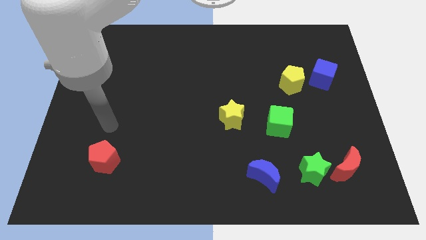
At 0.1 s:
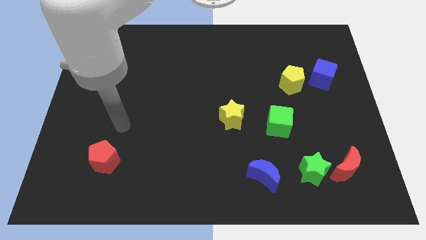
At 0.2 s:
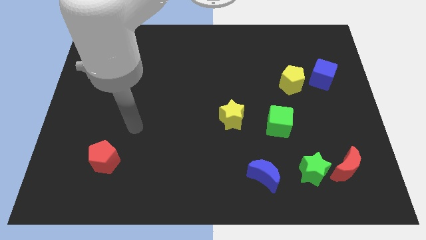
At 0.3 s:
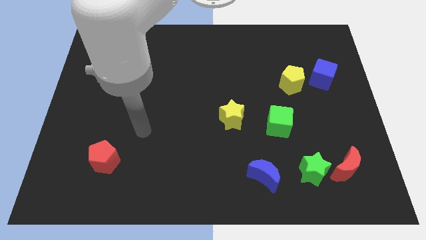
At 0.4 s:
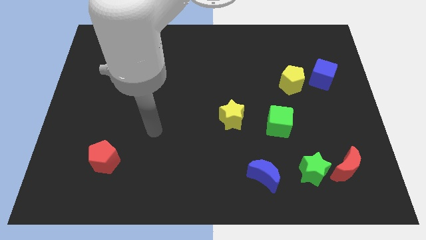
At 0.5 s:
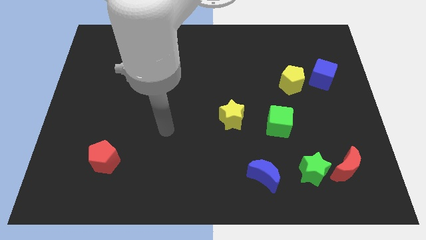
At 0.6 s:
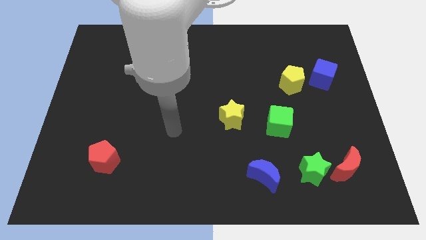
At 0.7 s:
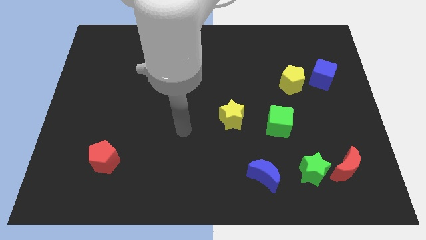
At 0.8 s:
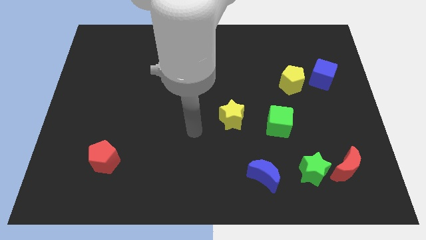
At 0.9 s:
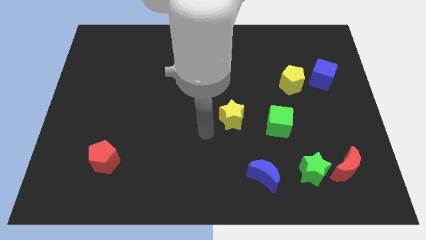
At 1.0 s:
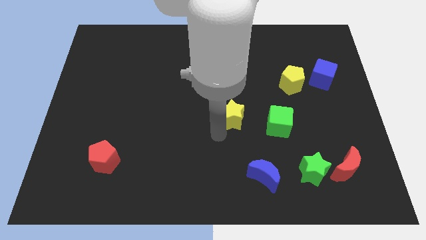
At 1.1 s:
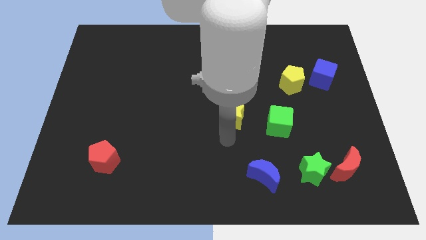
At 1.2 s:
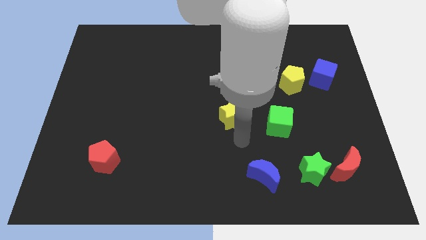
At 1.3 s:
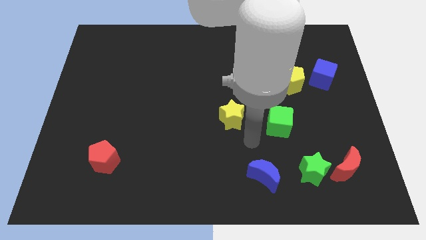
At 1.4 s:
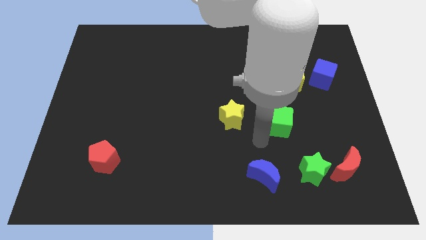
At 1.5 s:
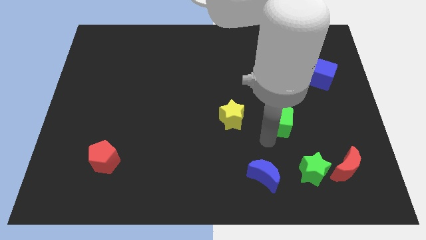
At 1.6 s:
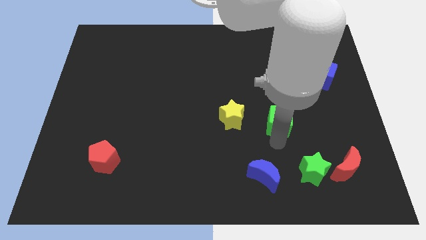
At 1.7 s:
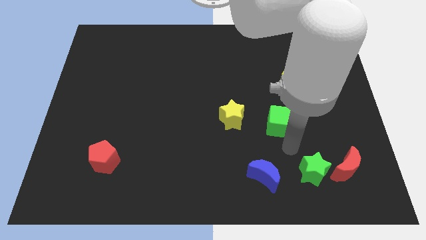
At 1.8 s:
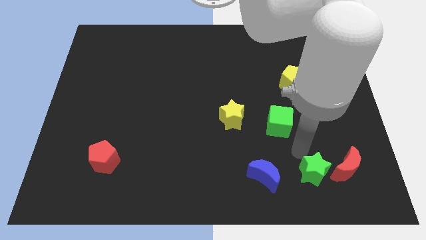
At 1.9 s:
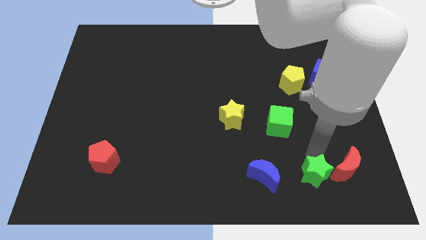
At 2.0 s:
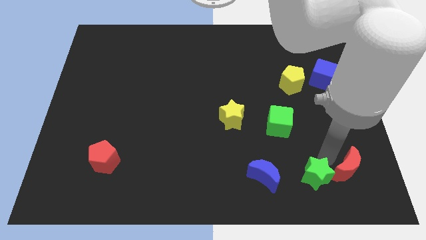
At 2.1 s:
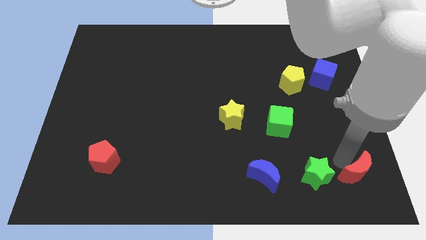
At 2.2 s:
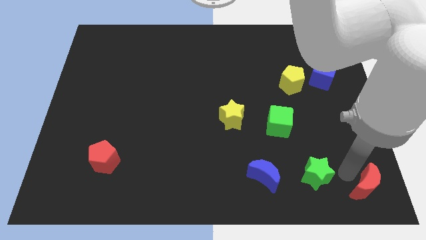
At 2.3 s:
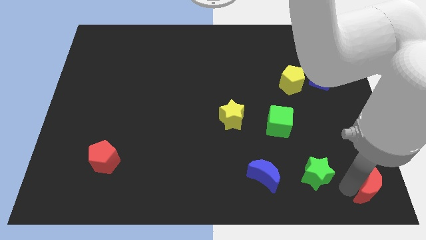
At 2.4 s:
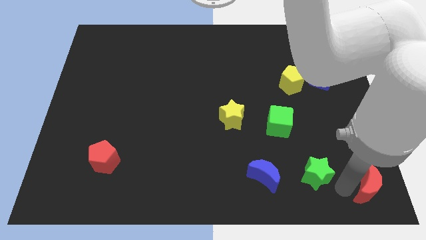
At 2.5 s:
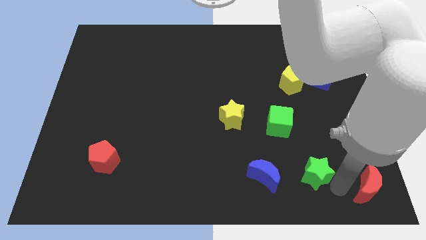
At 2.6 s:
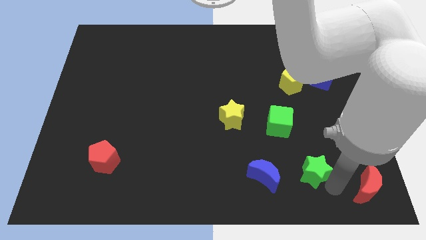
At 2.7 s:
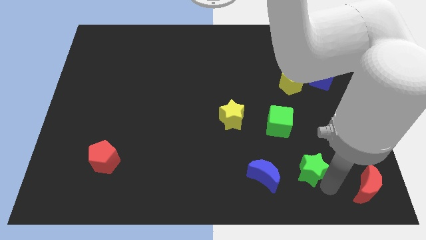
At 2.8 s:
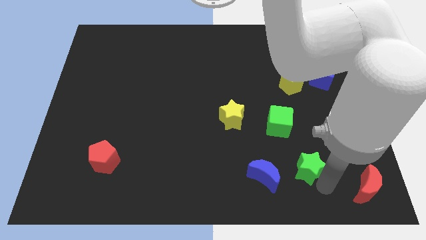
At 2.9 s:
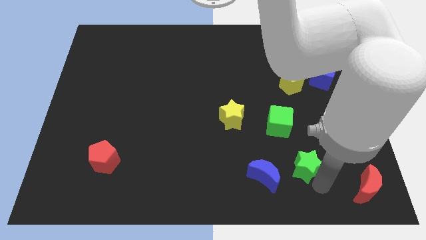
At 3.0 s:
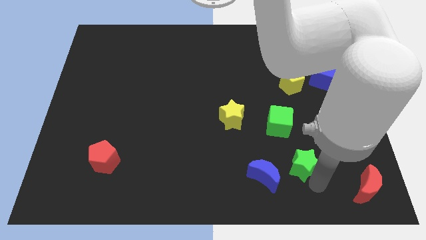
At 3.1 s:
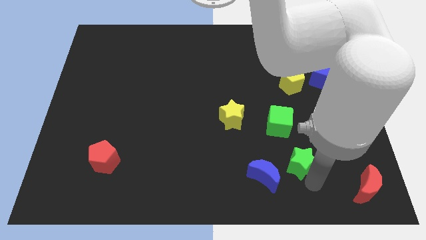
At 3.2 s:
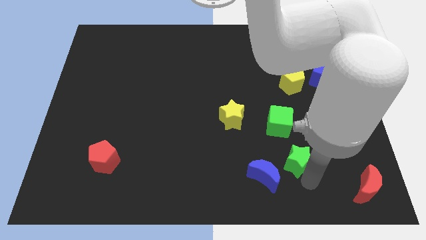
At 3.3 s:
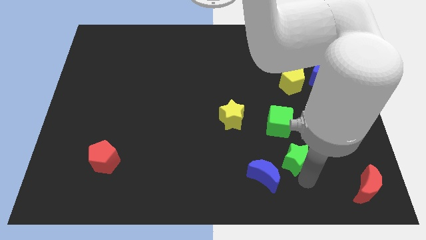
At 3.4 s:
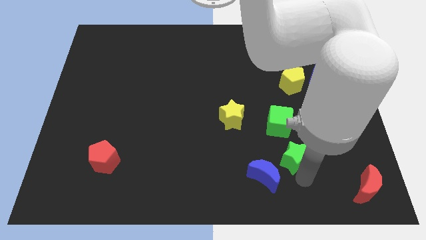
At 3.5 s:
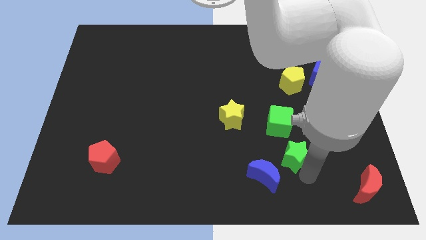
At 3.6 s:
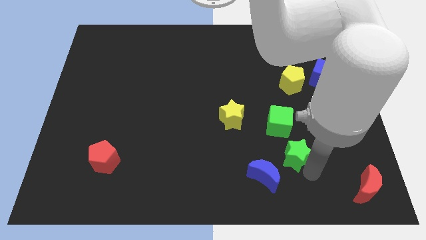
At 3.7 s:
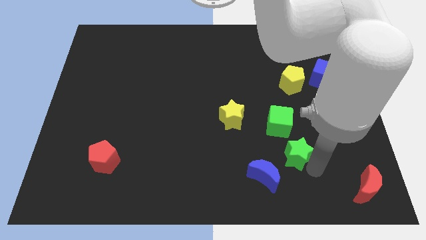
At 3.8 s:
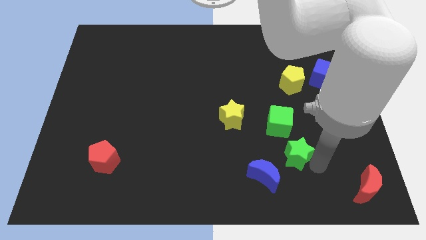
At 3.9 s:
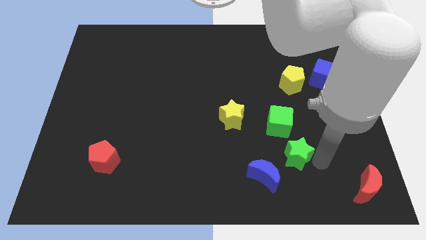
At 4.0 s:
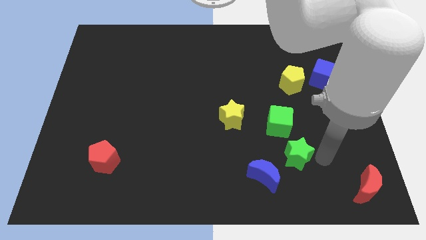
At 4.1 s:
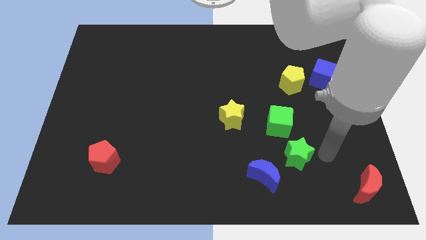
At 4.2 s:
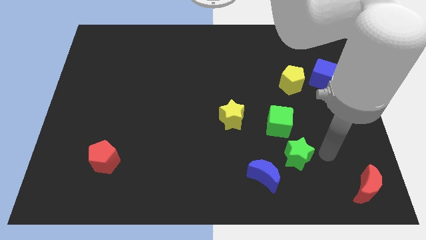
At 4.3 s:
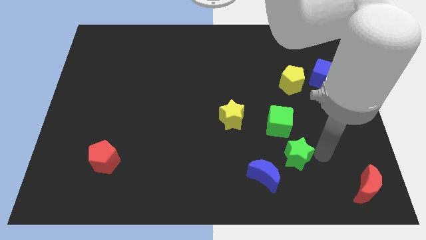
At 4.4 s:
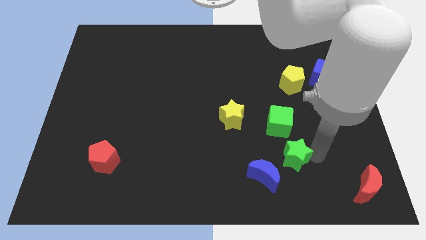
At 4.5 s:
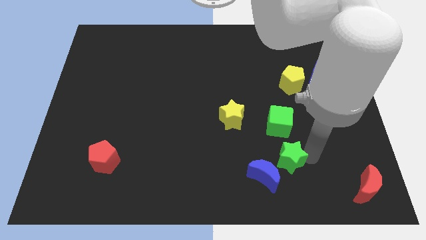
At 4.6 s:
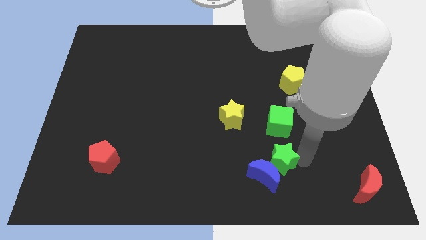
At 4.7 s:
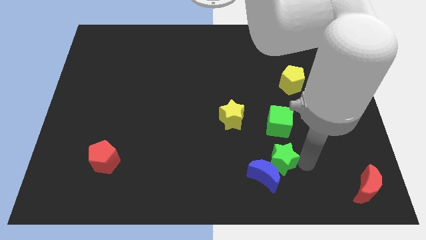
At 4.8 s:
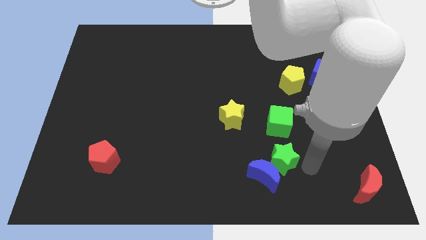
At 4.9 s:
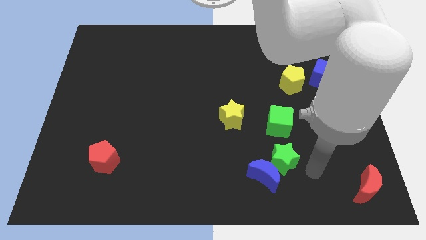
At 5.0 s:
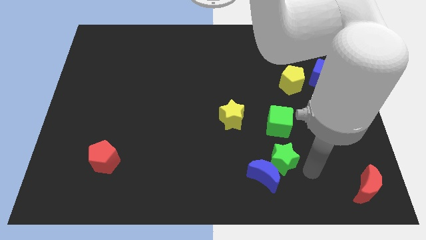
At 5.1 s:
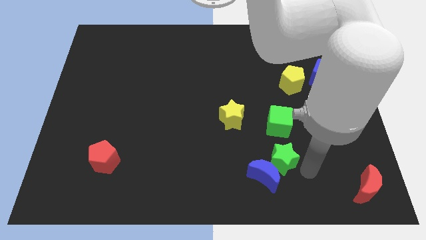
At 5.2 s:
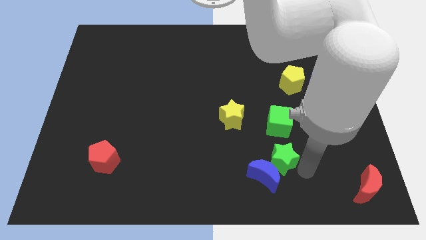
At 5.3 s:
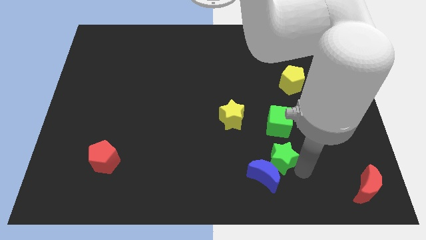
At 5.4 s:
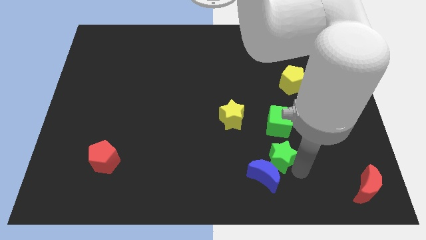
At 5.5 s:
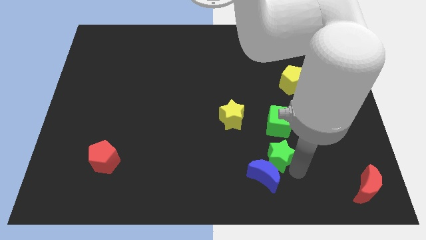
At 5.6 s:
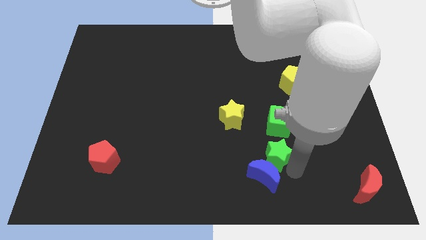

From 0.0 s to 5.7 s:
slide the green star somewhat left

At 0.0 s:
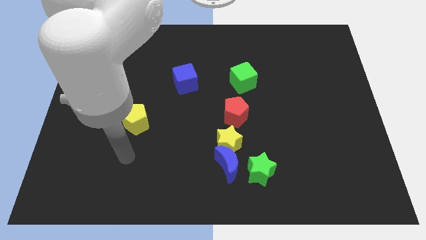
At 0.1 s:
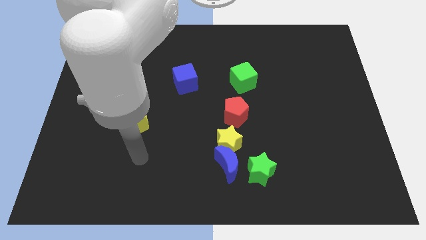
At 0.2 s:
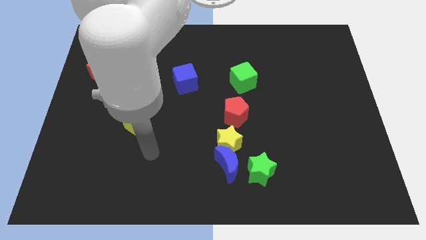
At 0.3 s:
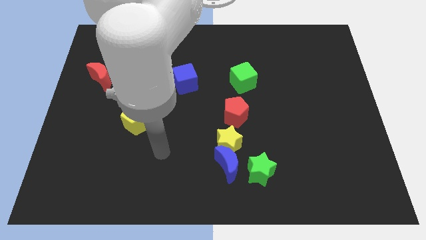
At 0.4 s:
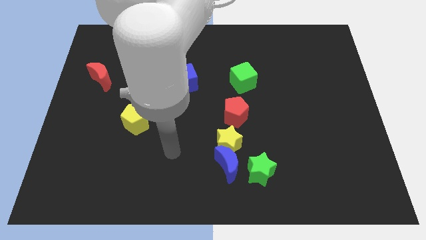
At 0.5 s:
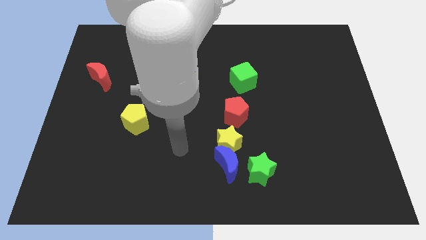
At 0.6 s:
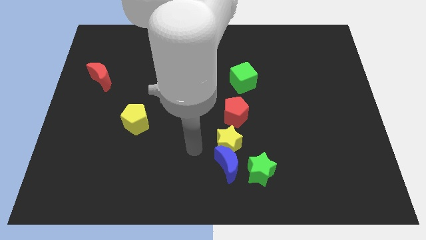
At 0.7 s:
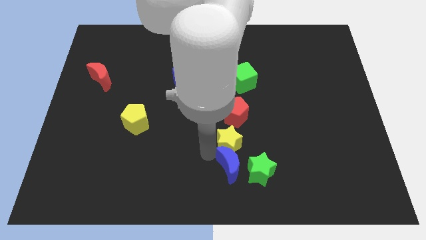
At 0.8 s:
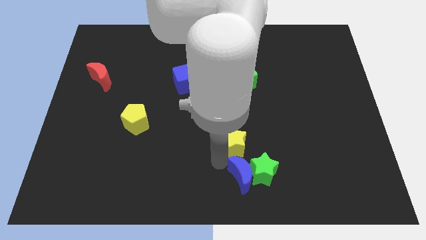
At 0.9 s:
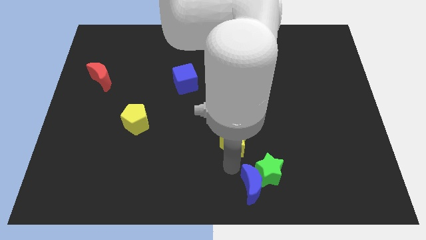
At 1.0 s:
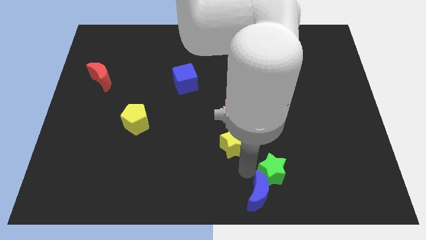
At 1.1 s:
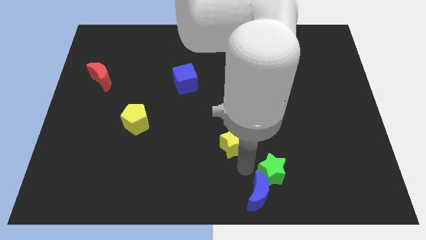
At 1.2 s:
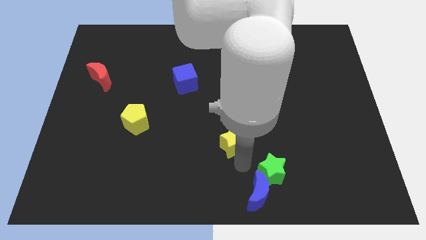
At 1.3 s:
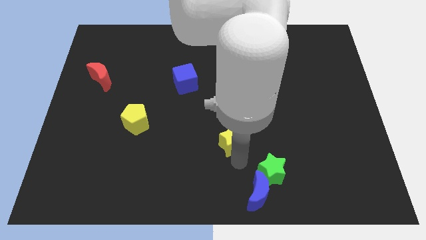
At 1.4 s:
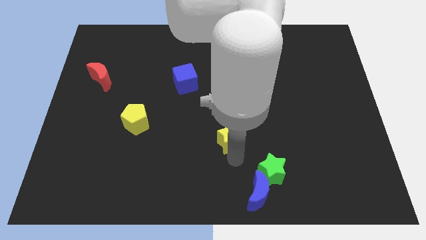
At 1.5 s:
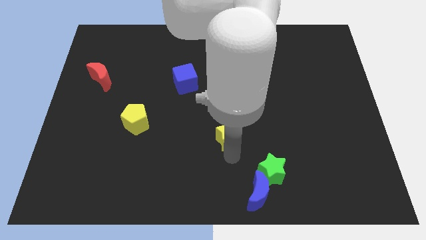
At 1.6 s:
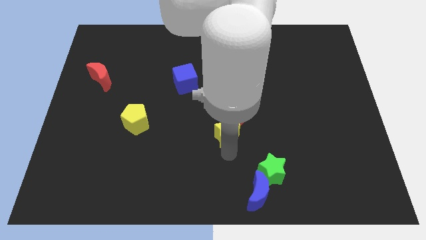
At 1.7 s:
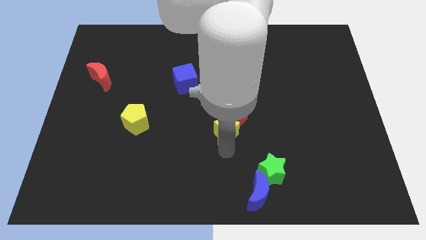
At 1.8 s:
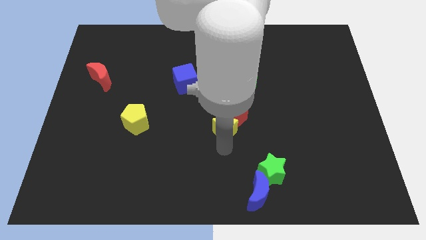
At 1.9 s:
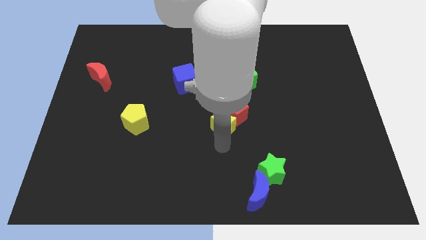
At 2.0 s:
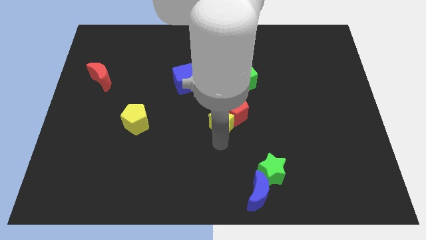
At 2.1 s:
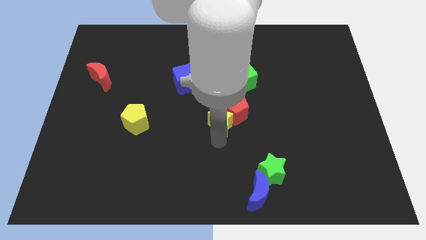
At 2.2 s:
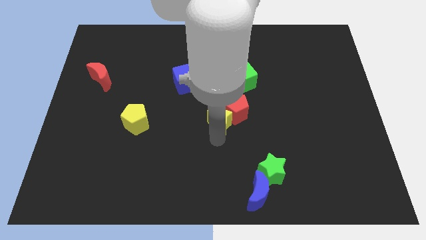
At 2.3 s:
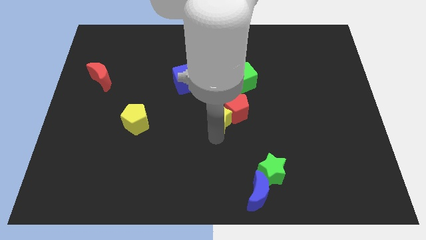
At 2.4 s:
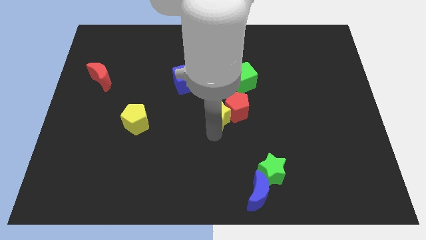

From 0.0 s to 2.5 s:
slide the yellow star upwards a bit
